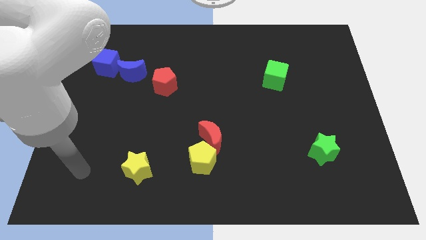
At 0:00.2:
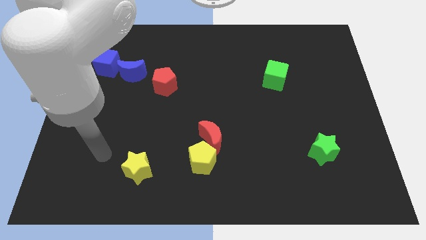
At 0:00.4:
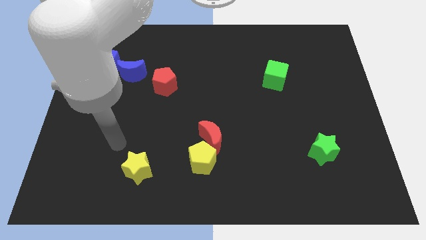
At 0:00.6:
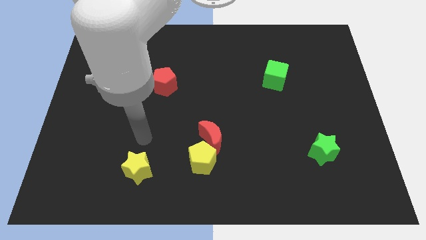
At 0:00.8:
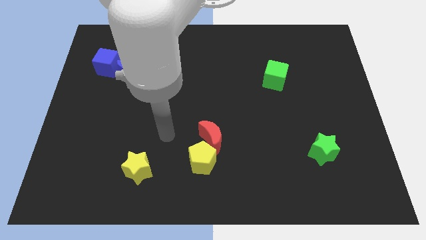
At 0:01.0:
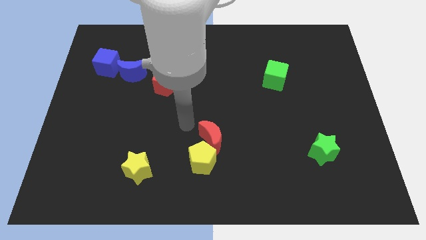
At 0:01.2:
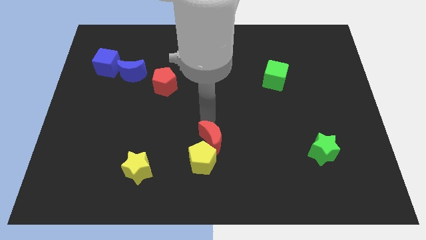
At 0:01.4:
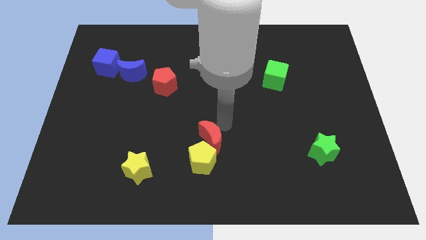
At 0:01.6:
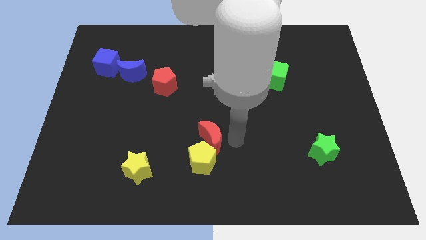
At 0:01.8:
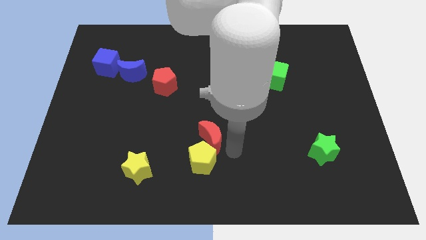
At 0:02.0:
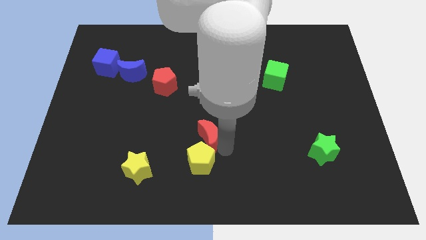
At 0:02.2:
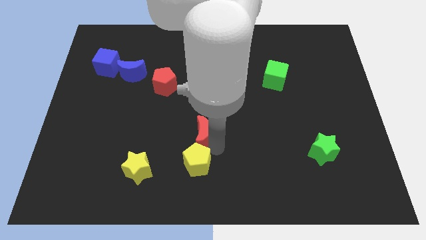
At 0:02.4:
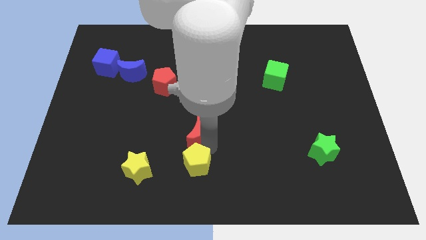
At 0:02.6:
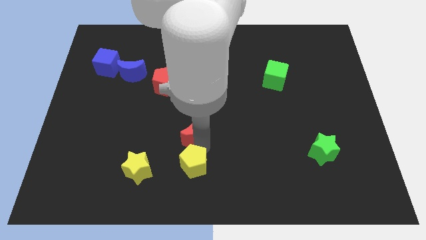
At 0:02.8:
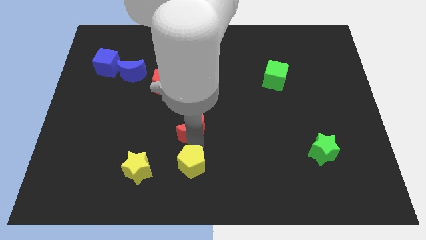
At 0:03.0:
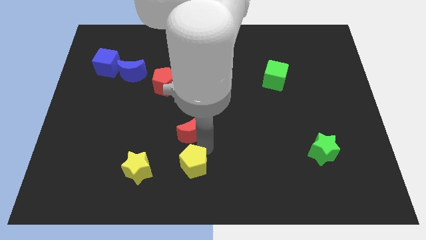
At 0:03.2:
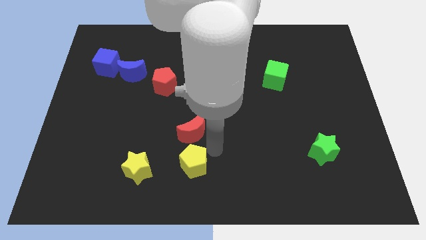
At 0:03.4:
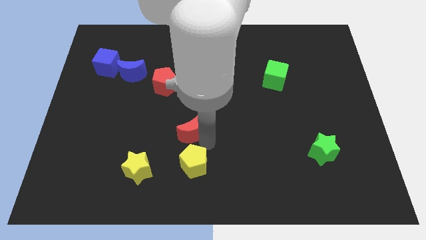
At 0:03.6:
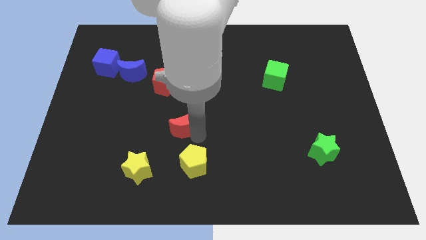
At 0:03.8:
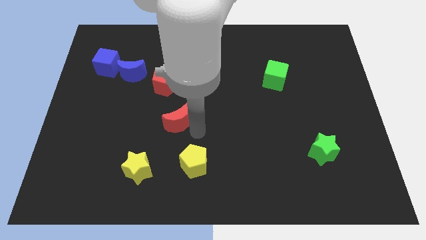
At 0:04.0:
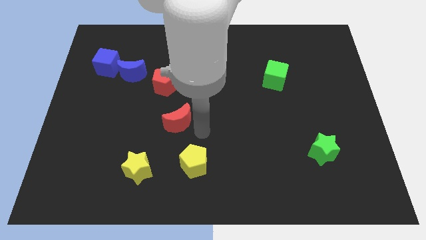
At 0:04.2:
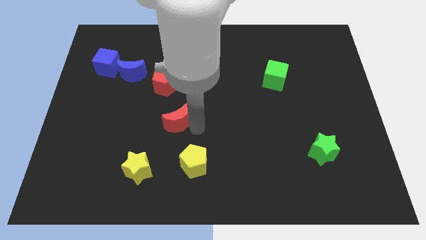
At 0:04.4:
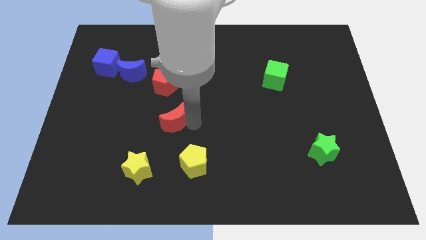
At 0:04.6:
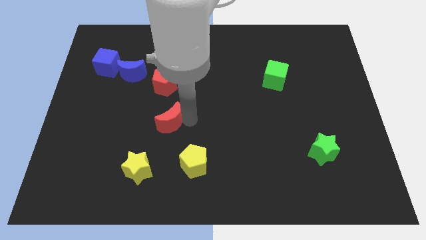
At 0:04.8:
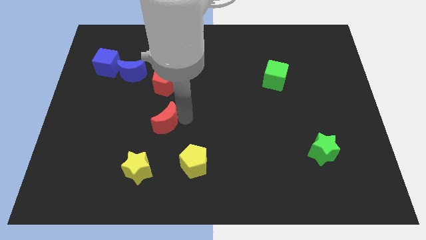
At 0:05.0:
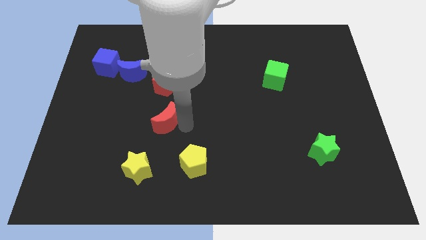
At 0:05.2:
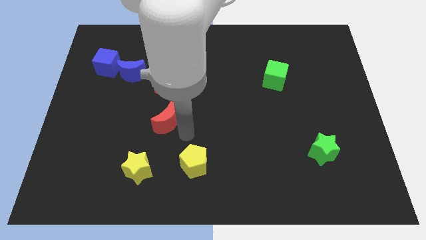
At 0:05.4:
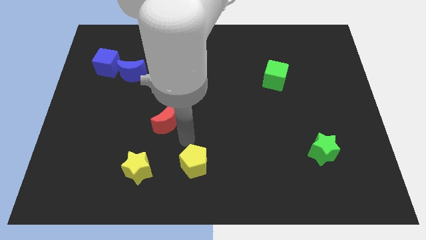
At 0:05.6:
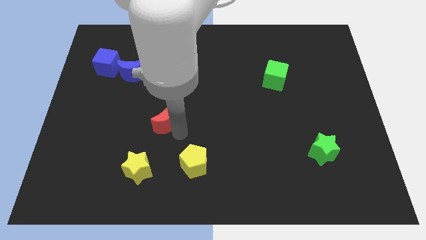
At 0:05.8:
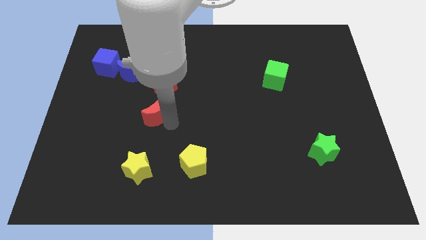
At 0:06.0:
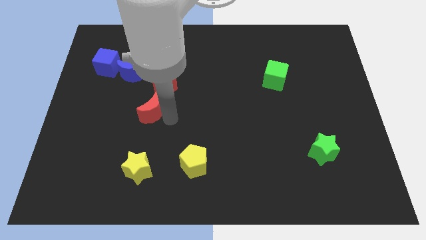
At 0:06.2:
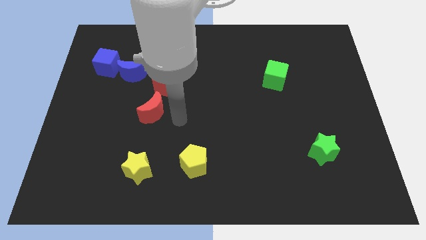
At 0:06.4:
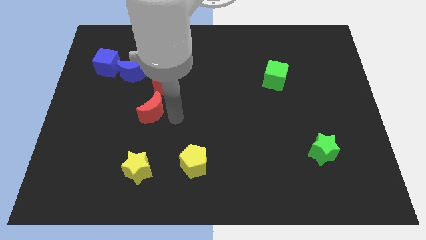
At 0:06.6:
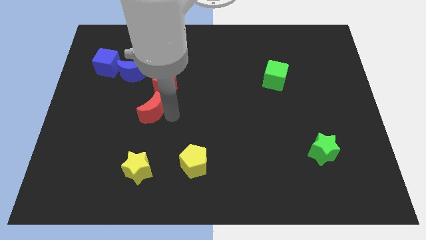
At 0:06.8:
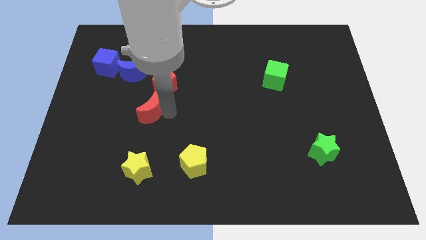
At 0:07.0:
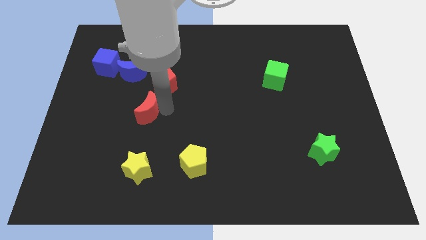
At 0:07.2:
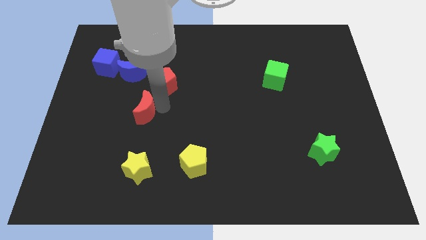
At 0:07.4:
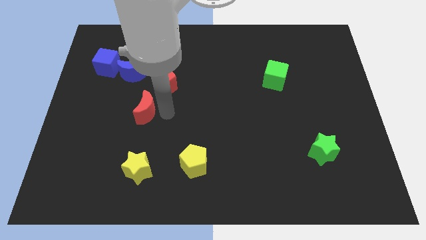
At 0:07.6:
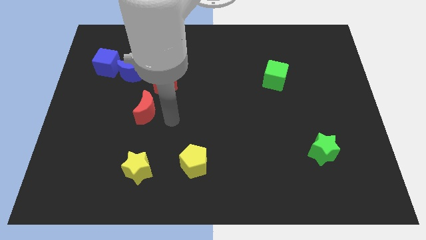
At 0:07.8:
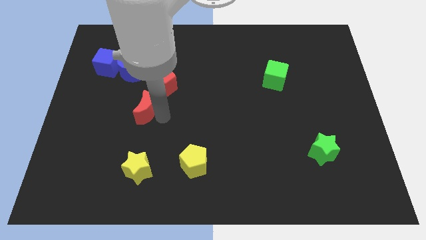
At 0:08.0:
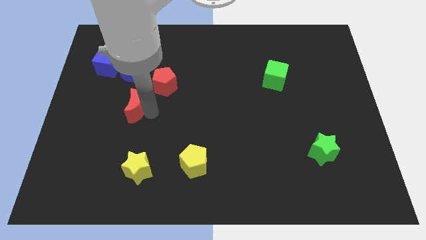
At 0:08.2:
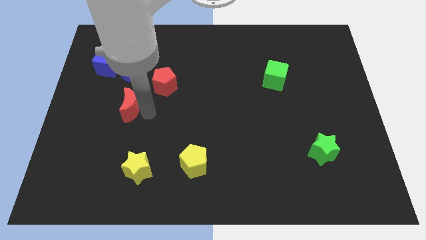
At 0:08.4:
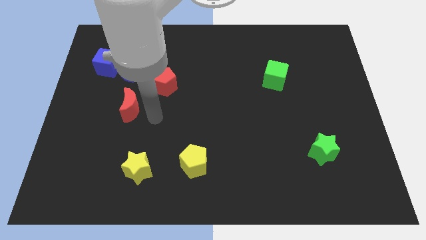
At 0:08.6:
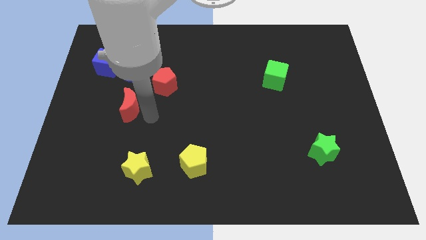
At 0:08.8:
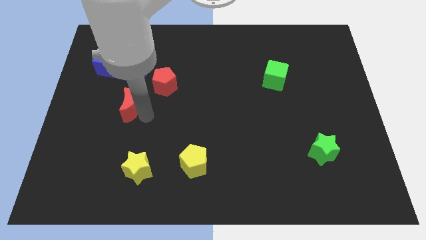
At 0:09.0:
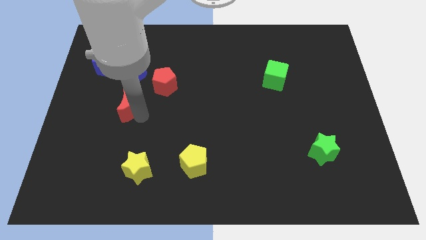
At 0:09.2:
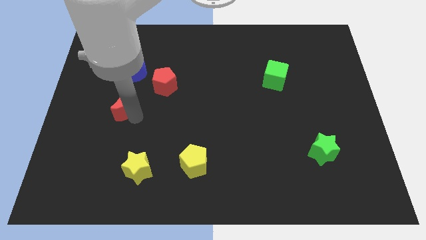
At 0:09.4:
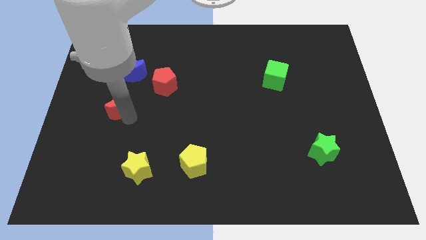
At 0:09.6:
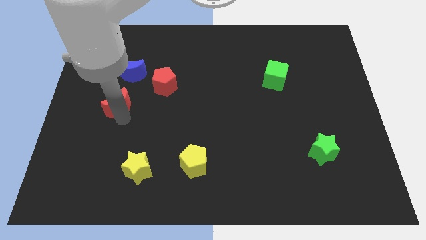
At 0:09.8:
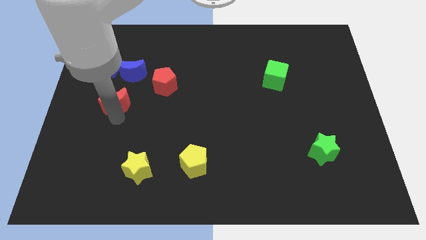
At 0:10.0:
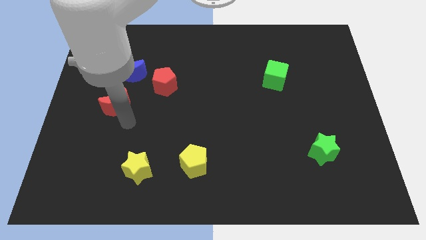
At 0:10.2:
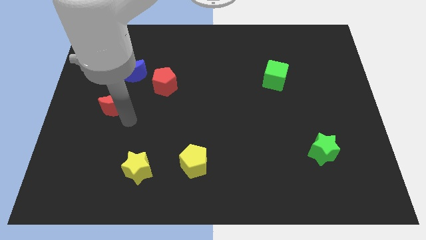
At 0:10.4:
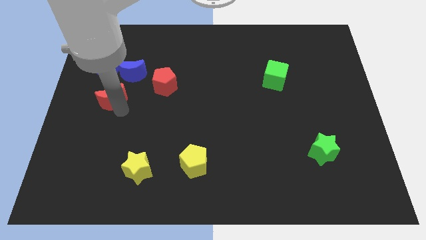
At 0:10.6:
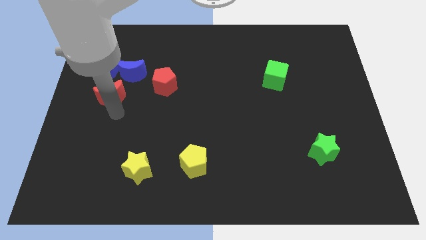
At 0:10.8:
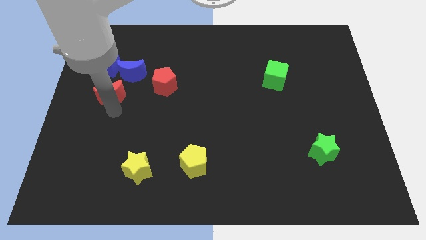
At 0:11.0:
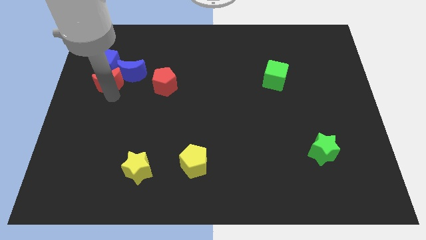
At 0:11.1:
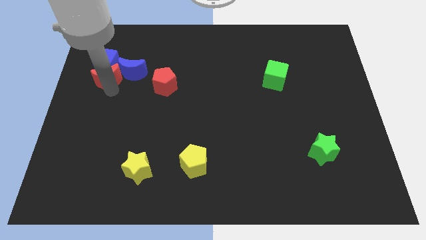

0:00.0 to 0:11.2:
move the red moon close to the blue cube

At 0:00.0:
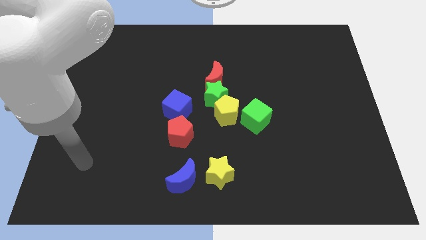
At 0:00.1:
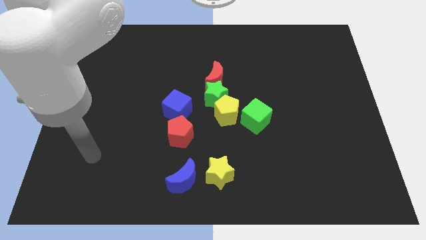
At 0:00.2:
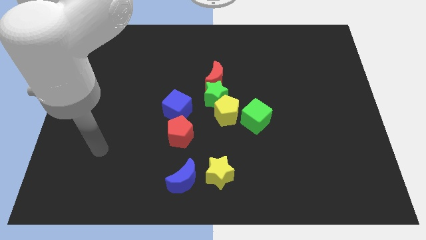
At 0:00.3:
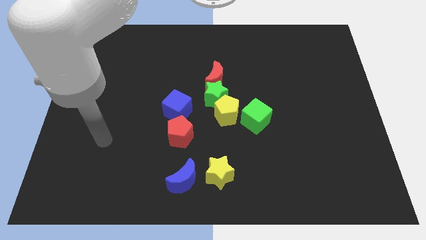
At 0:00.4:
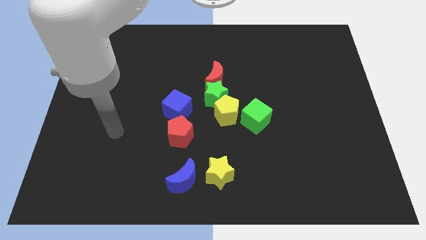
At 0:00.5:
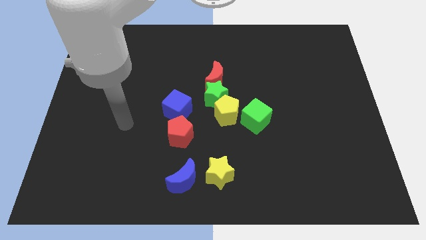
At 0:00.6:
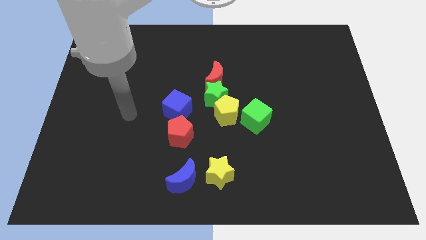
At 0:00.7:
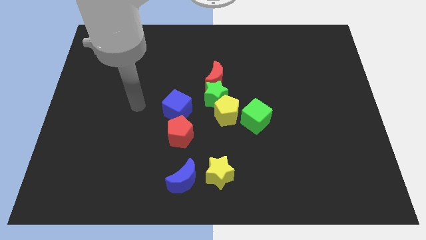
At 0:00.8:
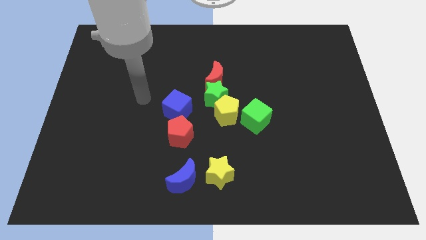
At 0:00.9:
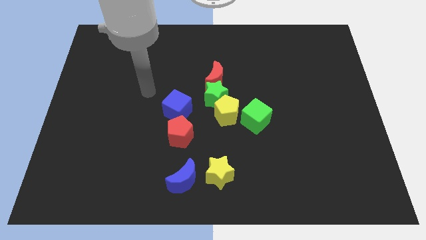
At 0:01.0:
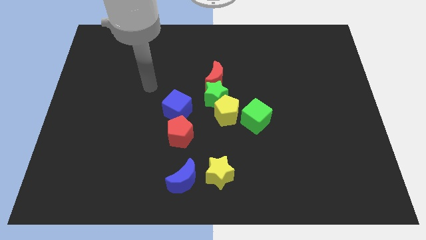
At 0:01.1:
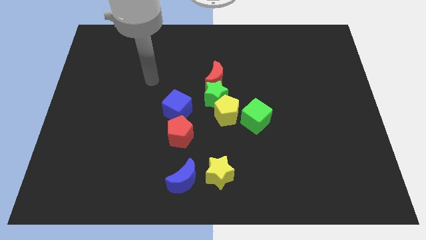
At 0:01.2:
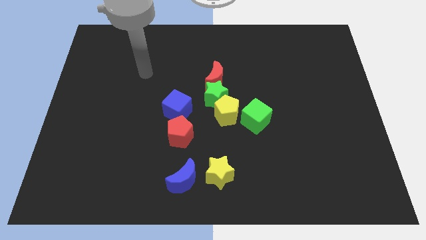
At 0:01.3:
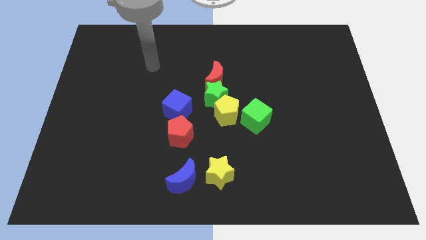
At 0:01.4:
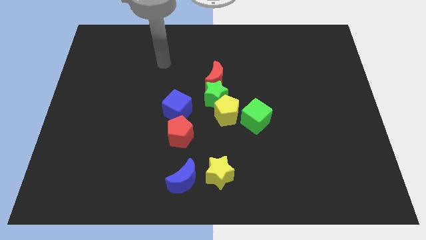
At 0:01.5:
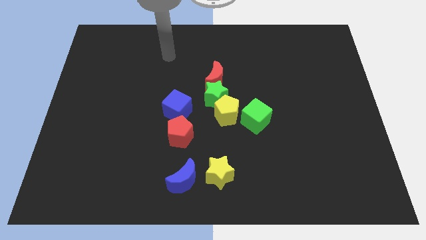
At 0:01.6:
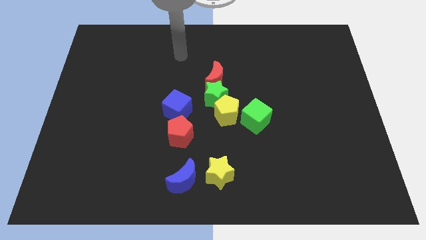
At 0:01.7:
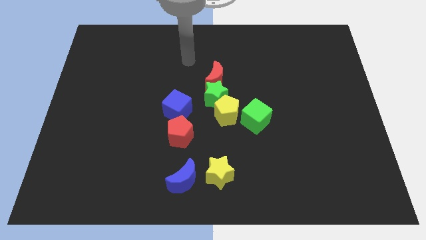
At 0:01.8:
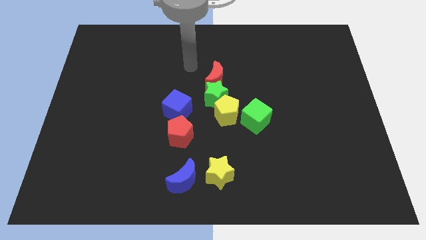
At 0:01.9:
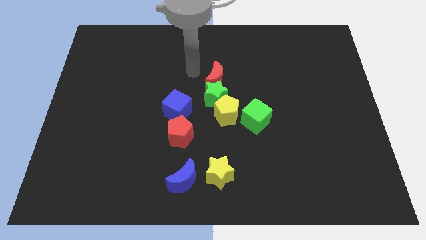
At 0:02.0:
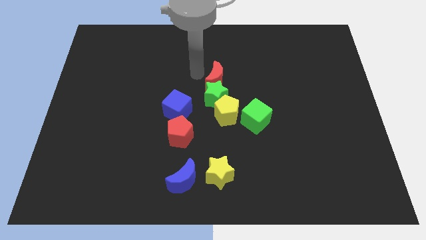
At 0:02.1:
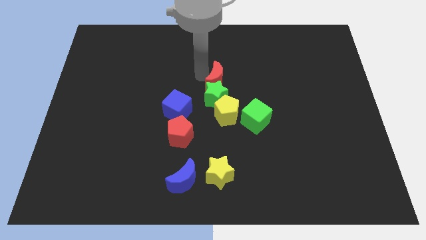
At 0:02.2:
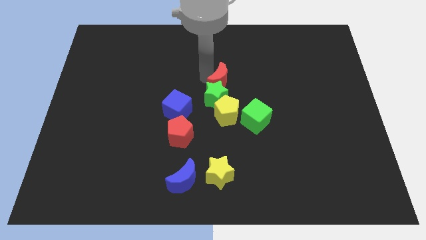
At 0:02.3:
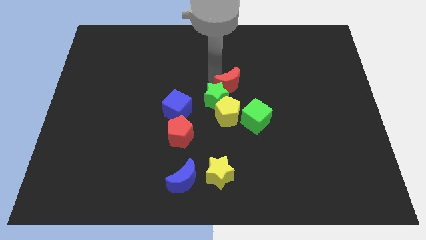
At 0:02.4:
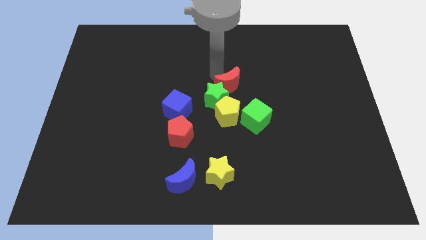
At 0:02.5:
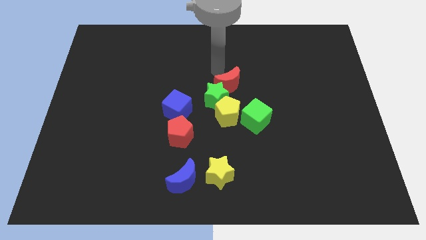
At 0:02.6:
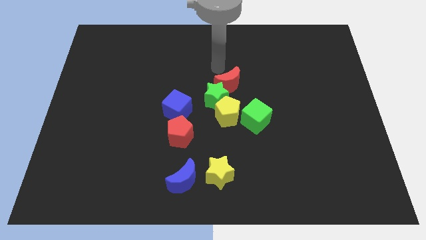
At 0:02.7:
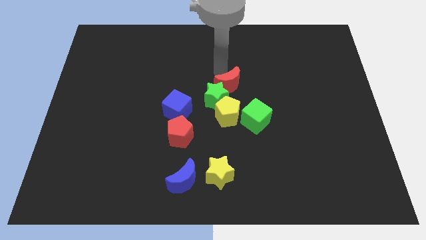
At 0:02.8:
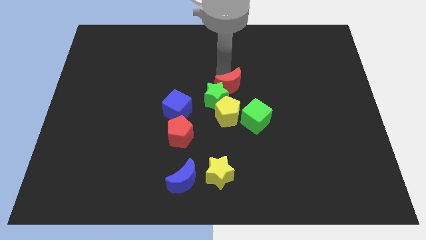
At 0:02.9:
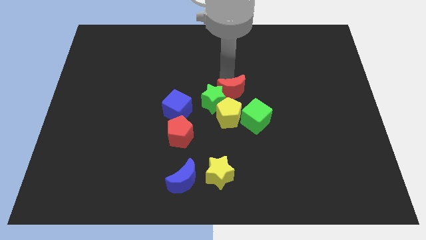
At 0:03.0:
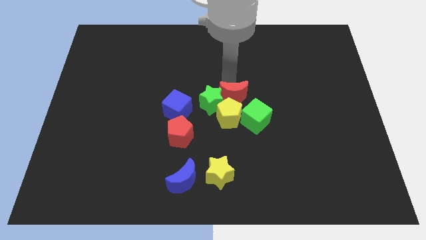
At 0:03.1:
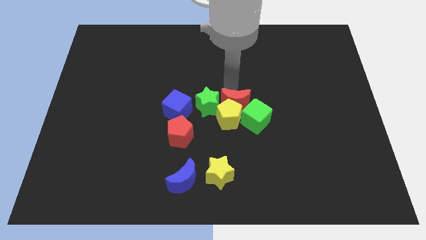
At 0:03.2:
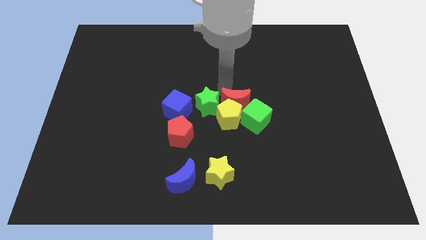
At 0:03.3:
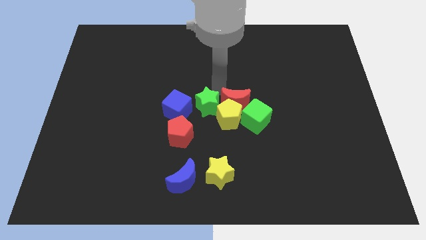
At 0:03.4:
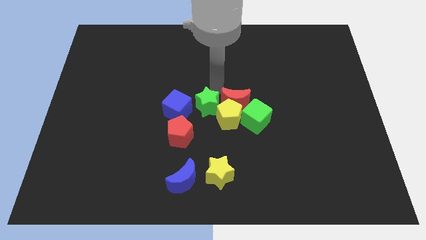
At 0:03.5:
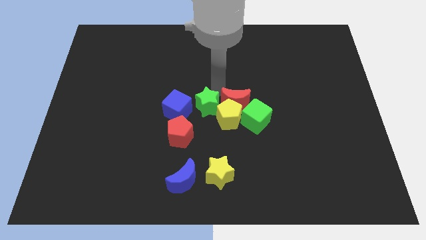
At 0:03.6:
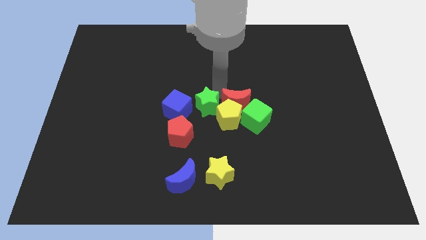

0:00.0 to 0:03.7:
slide the red moon next to the green cube
